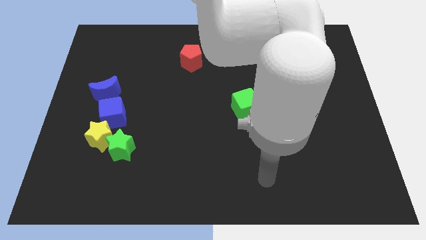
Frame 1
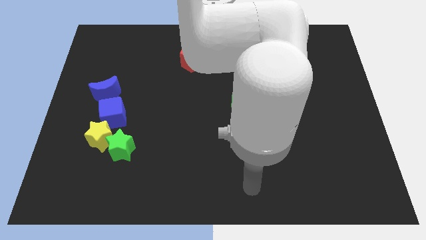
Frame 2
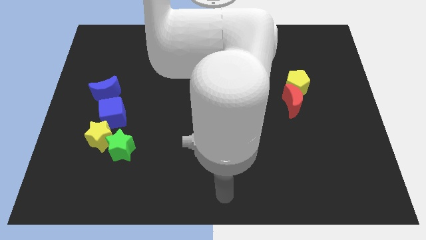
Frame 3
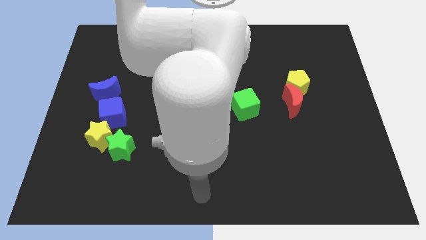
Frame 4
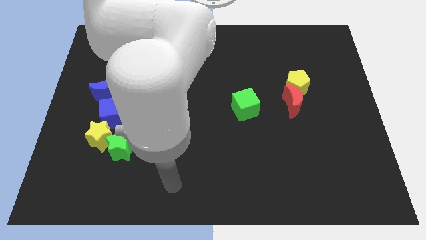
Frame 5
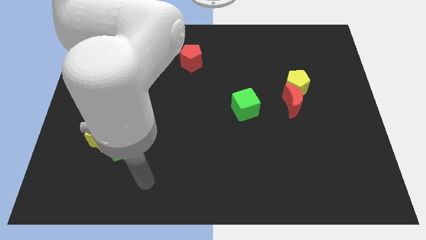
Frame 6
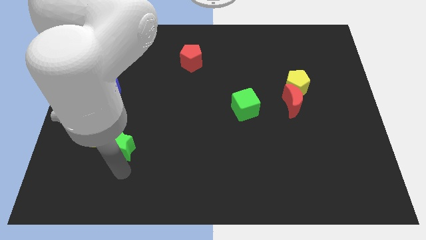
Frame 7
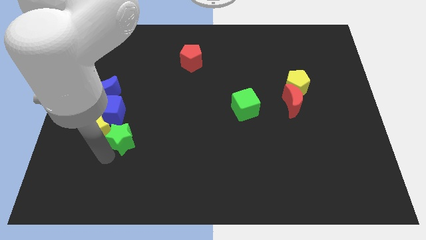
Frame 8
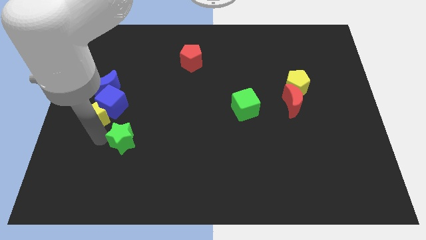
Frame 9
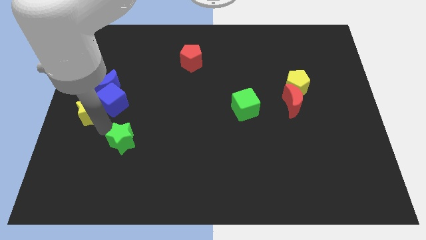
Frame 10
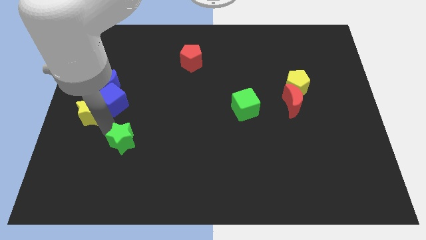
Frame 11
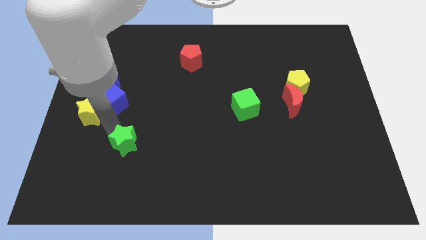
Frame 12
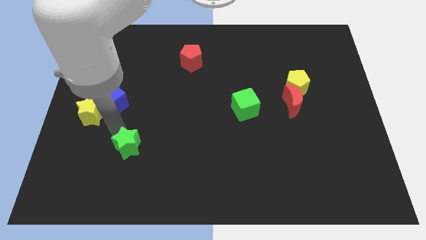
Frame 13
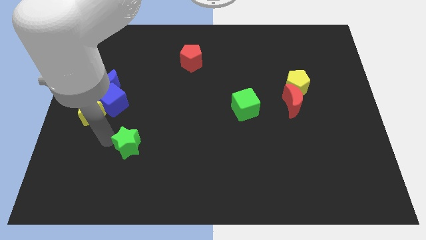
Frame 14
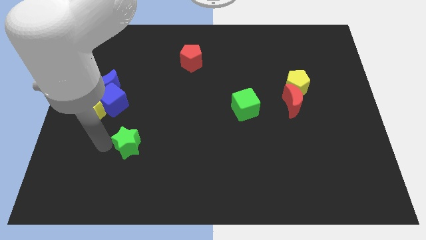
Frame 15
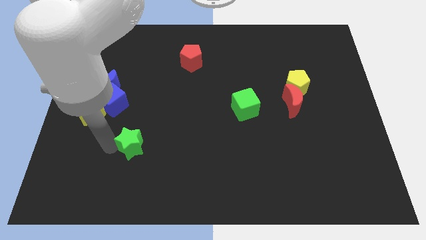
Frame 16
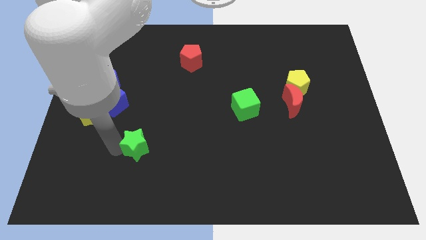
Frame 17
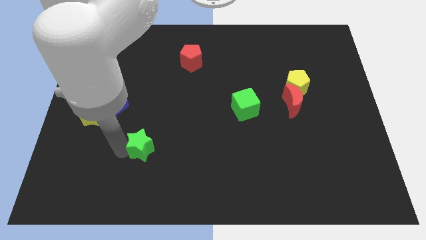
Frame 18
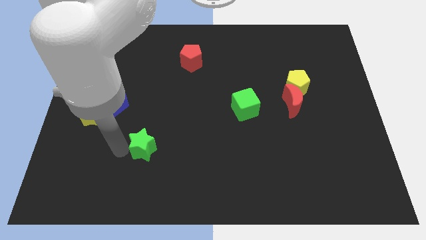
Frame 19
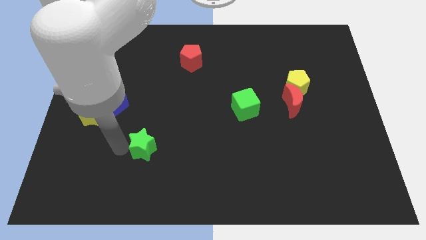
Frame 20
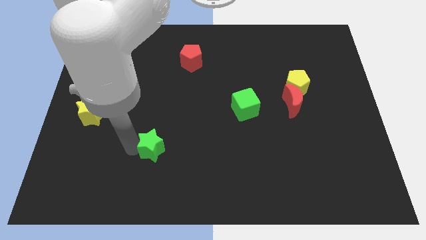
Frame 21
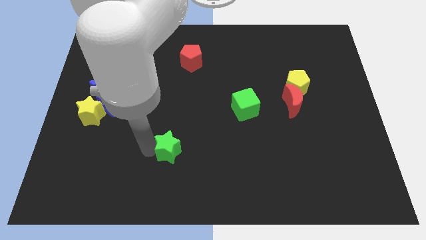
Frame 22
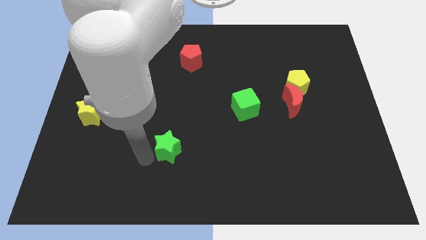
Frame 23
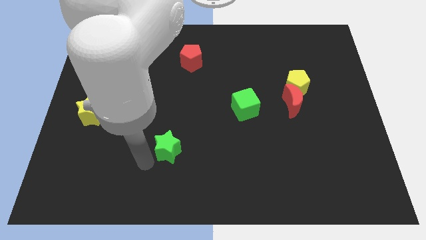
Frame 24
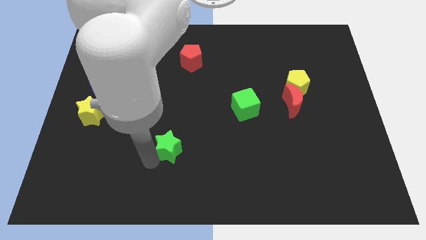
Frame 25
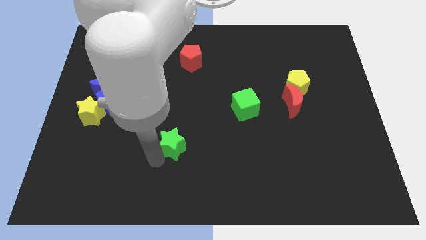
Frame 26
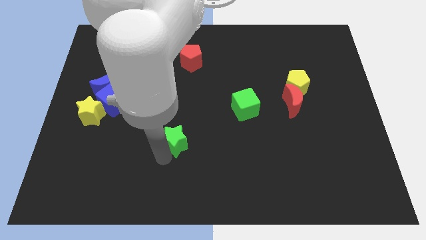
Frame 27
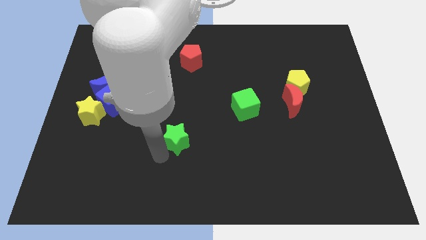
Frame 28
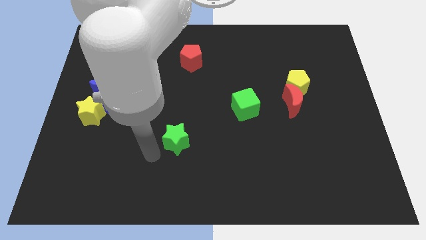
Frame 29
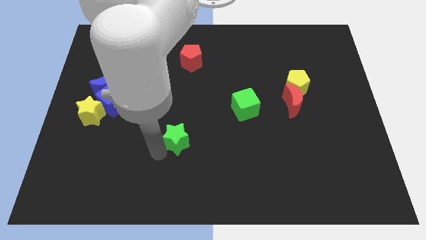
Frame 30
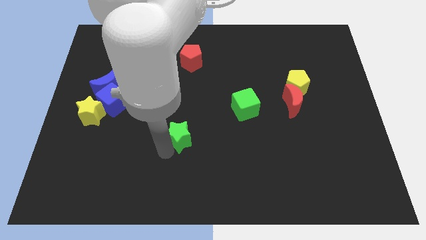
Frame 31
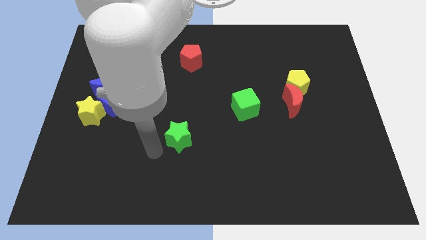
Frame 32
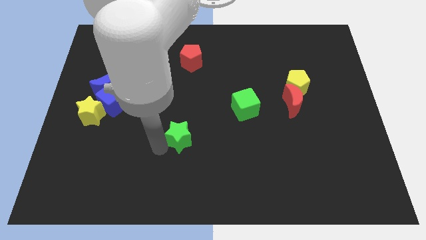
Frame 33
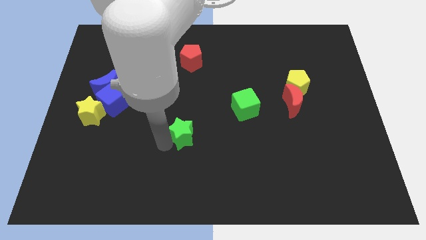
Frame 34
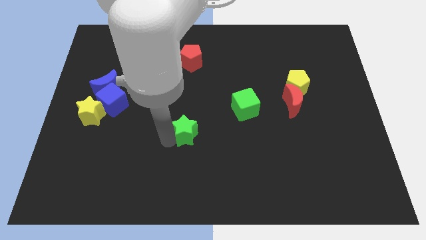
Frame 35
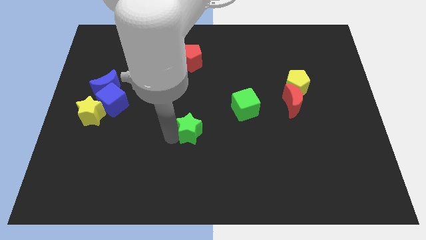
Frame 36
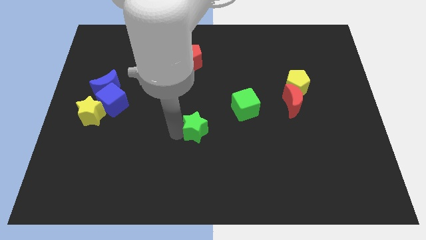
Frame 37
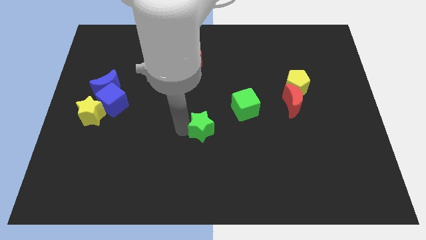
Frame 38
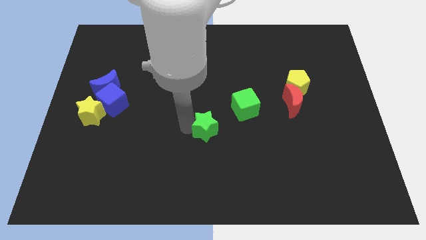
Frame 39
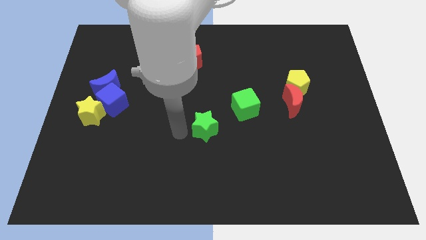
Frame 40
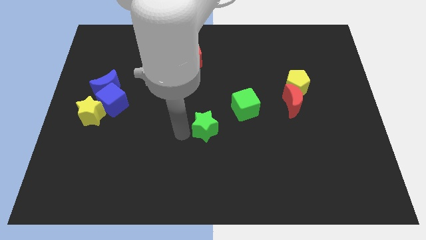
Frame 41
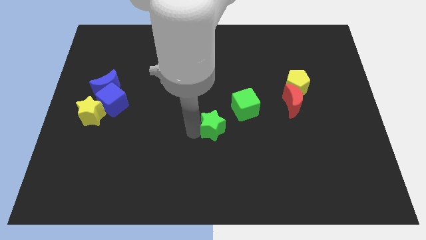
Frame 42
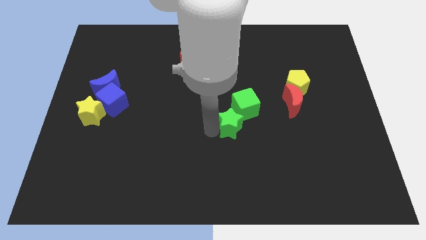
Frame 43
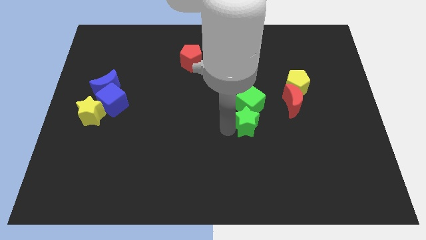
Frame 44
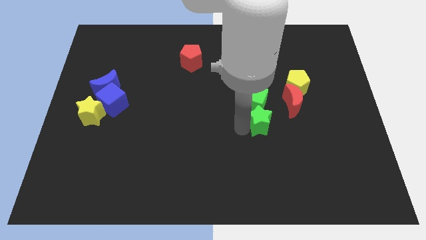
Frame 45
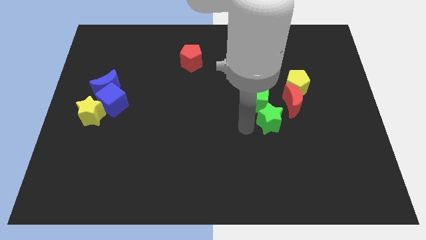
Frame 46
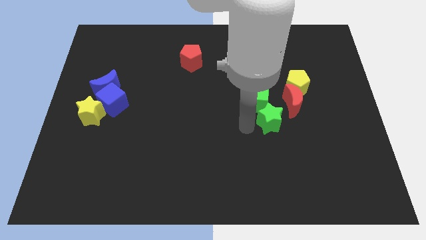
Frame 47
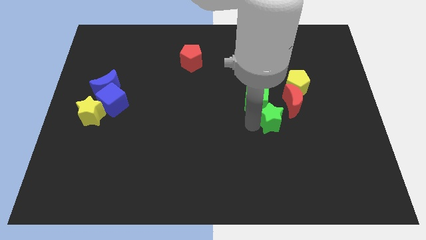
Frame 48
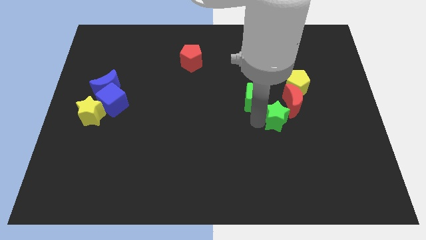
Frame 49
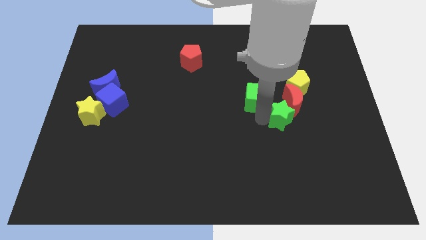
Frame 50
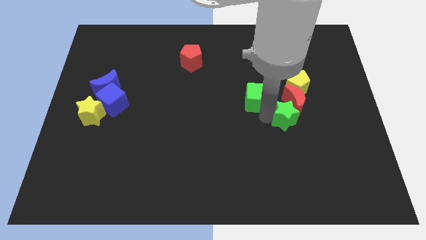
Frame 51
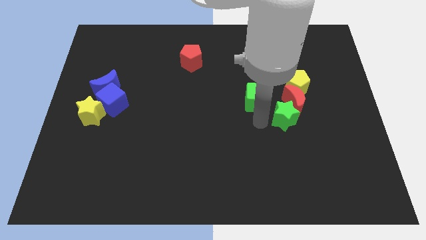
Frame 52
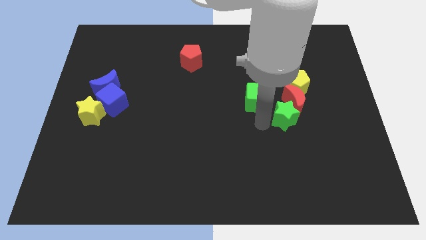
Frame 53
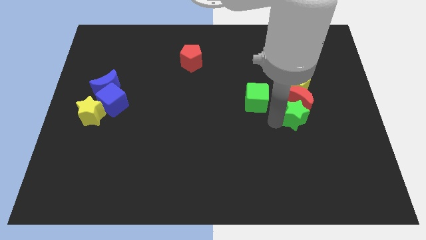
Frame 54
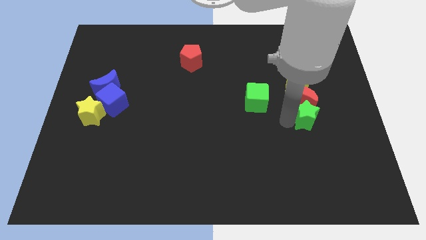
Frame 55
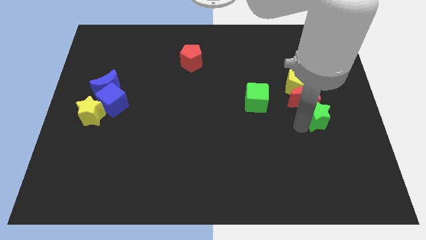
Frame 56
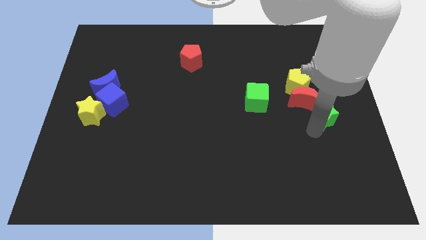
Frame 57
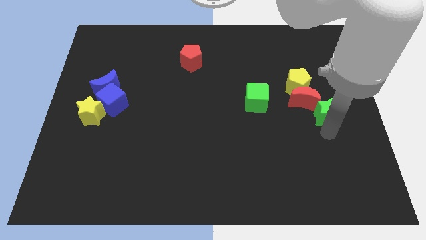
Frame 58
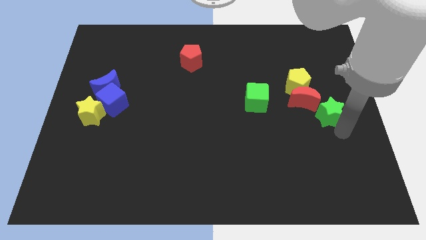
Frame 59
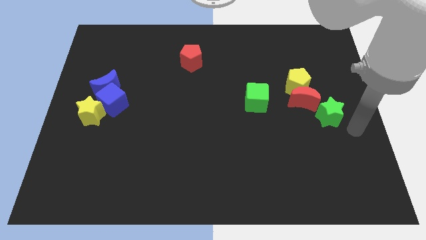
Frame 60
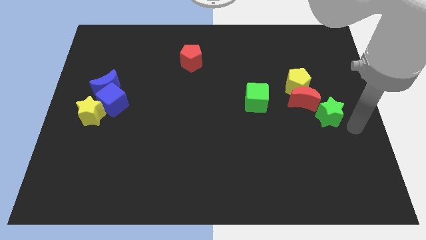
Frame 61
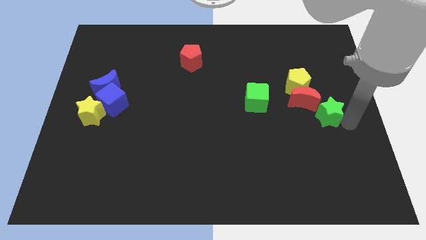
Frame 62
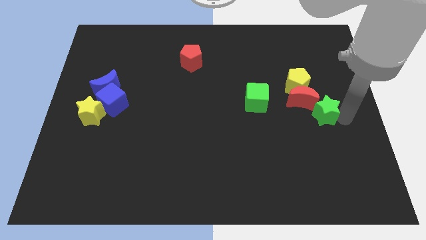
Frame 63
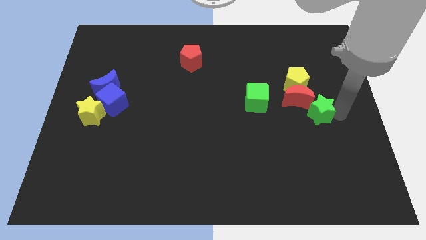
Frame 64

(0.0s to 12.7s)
put the green star just right of the green cube
